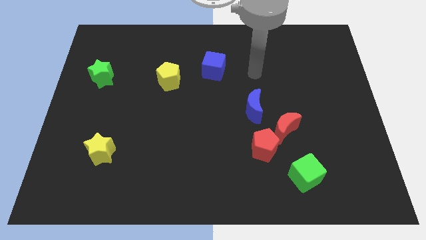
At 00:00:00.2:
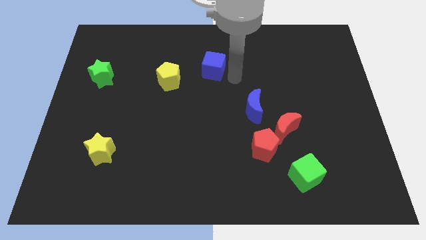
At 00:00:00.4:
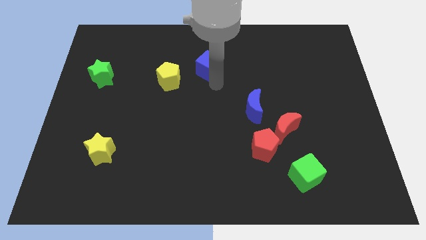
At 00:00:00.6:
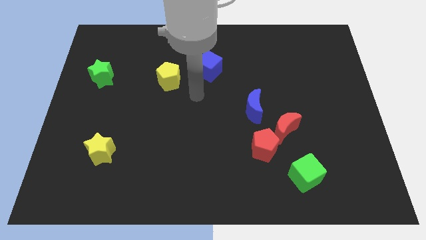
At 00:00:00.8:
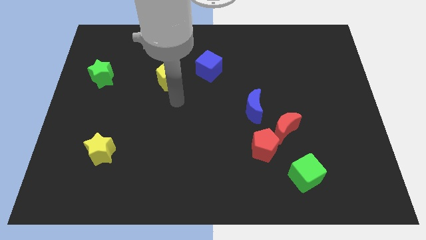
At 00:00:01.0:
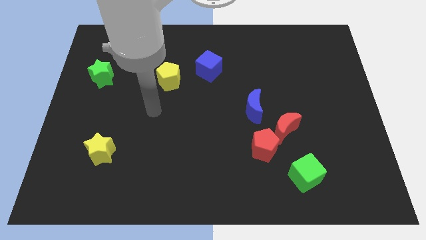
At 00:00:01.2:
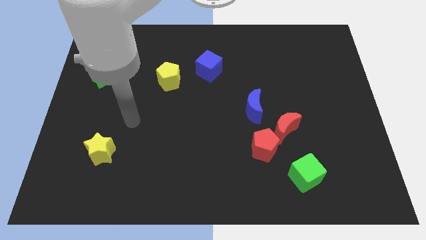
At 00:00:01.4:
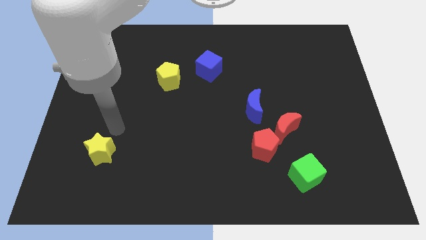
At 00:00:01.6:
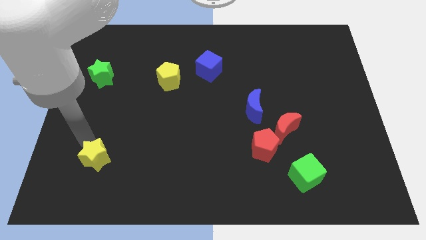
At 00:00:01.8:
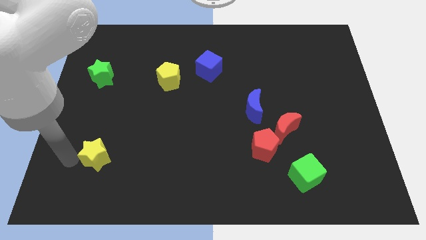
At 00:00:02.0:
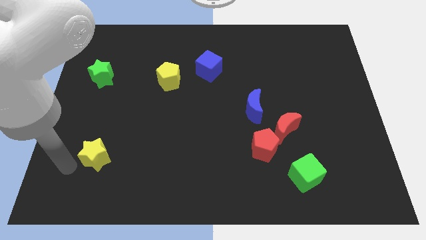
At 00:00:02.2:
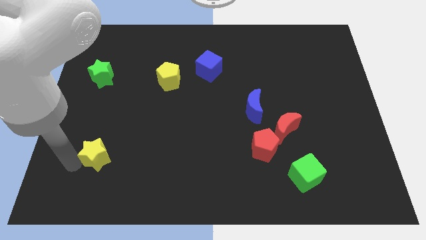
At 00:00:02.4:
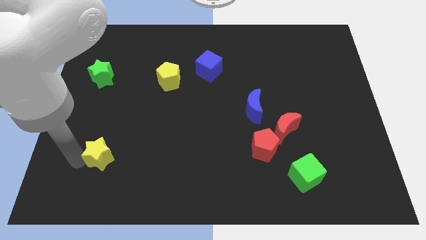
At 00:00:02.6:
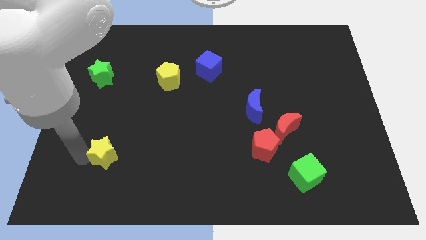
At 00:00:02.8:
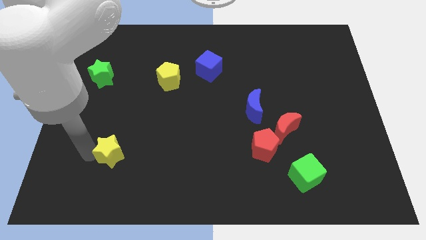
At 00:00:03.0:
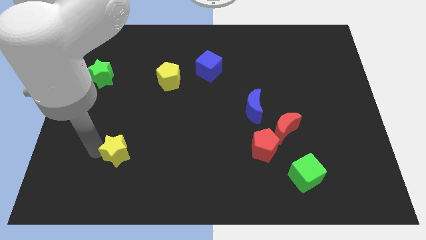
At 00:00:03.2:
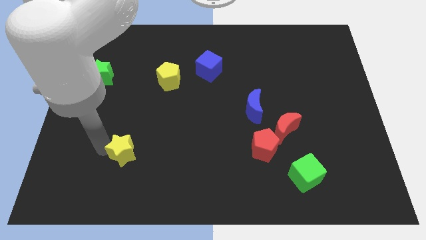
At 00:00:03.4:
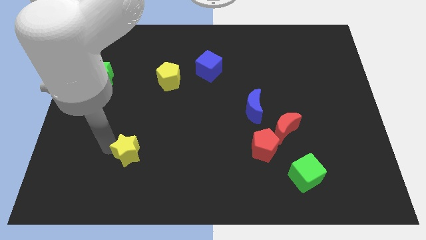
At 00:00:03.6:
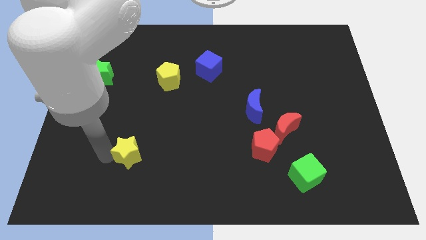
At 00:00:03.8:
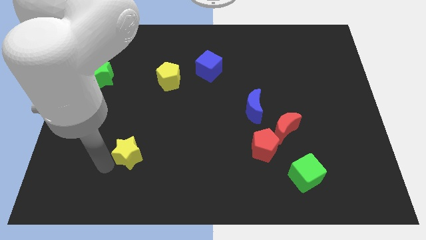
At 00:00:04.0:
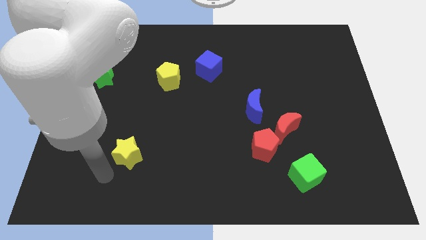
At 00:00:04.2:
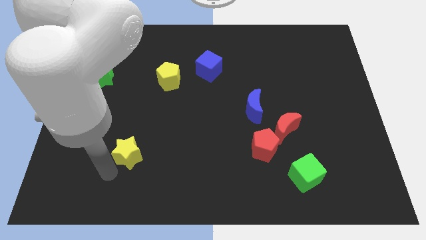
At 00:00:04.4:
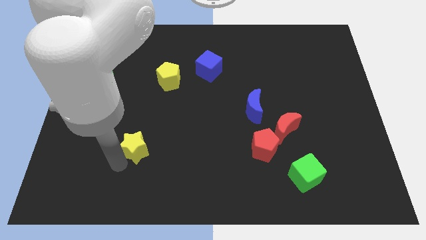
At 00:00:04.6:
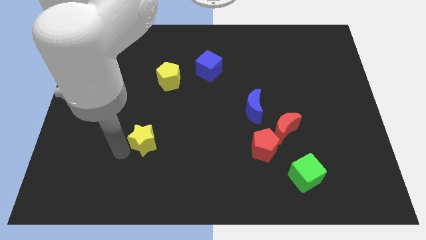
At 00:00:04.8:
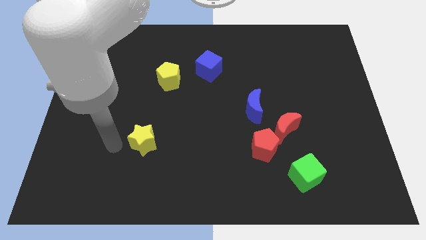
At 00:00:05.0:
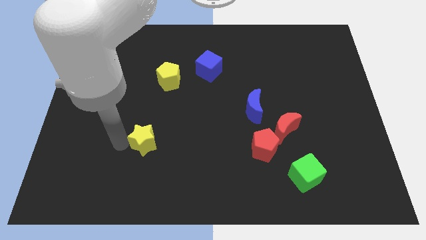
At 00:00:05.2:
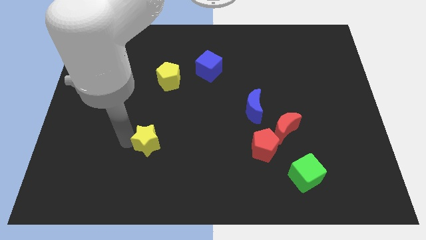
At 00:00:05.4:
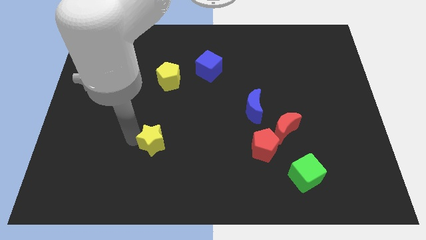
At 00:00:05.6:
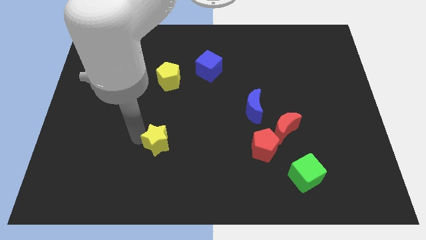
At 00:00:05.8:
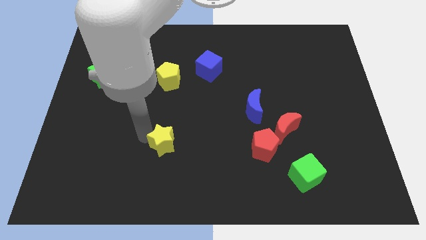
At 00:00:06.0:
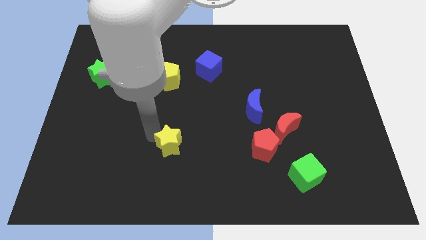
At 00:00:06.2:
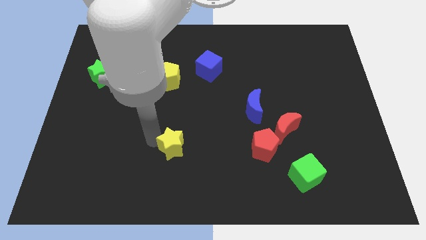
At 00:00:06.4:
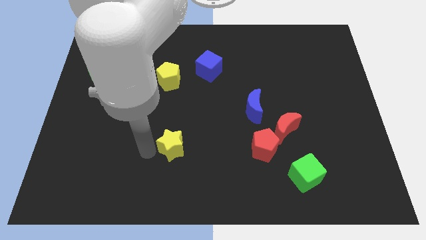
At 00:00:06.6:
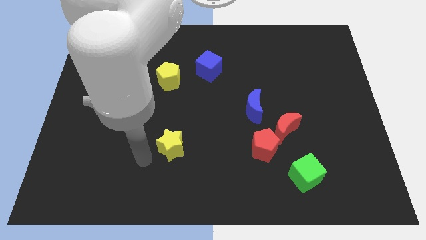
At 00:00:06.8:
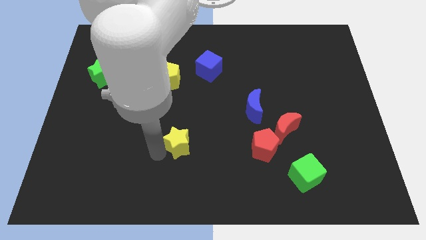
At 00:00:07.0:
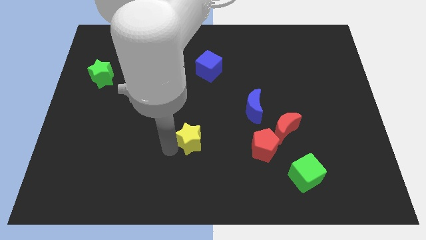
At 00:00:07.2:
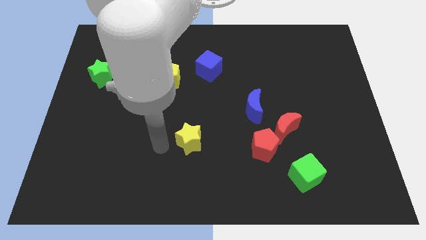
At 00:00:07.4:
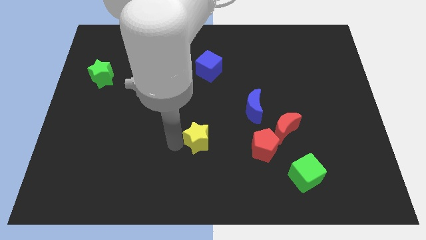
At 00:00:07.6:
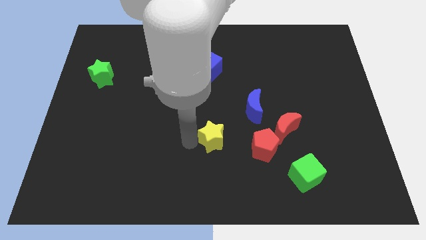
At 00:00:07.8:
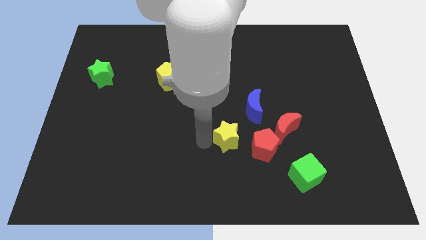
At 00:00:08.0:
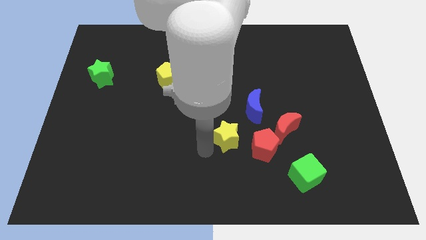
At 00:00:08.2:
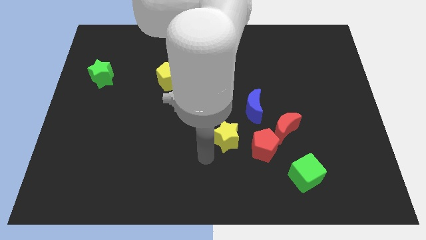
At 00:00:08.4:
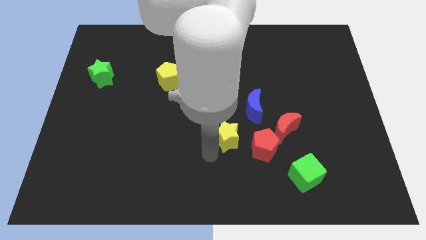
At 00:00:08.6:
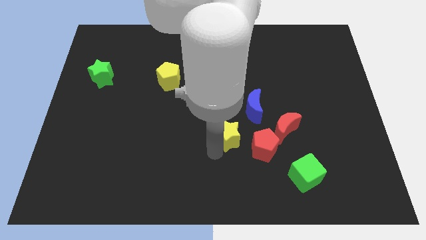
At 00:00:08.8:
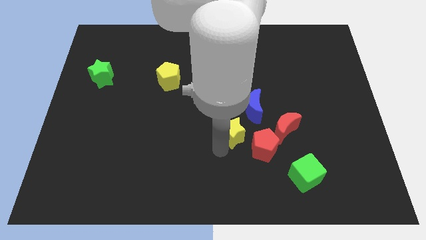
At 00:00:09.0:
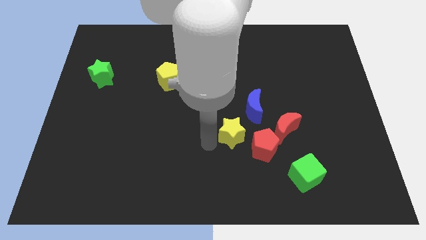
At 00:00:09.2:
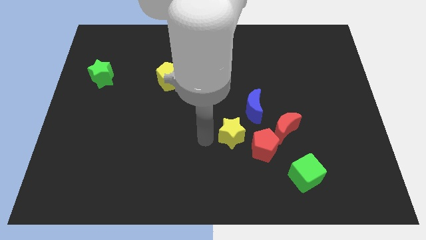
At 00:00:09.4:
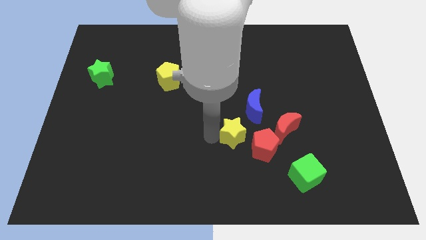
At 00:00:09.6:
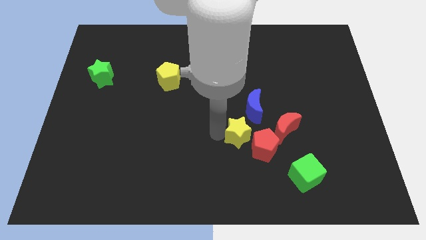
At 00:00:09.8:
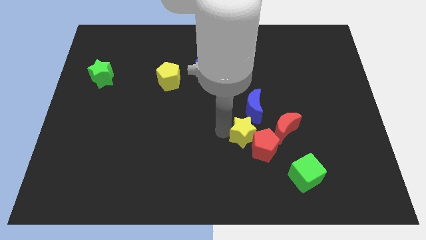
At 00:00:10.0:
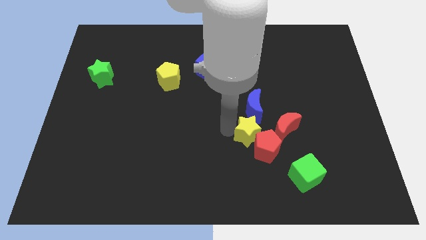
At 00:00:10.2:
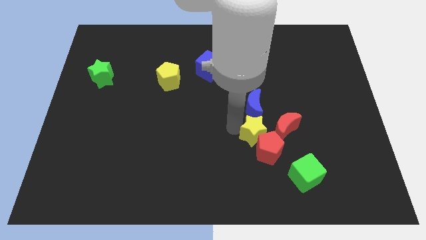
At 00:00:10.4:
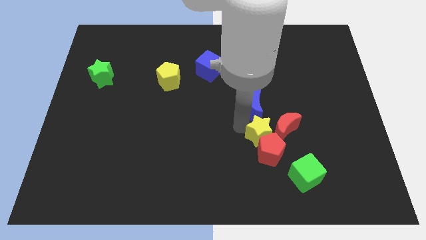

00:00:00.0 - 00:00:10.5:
put the yellow star close to the red moon

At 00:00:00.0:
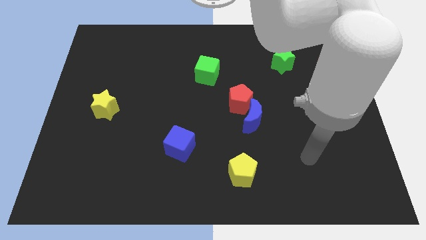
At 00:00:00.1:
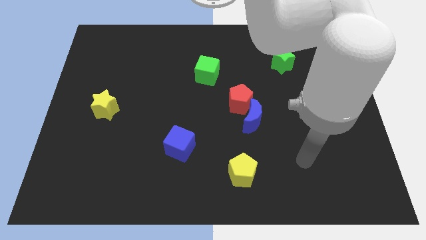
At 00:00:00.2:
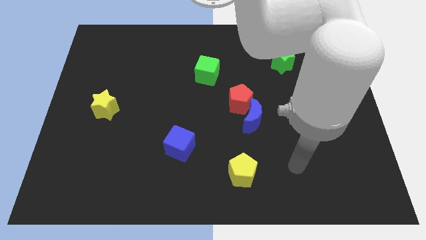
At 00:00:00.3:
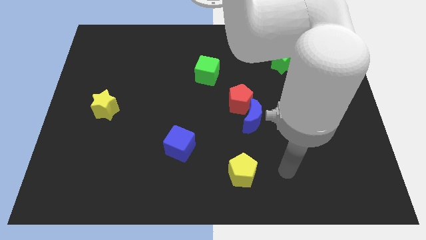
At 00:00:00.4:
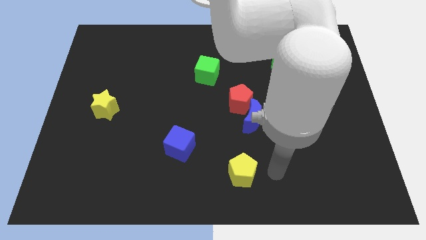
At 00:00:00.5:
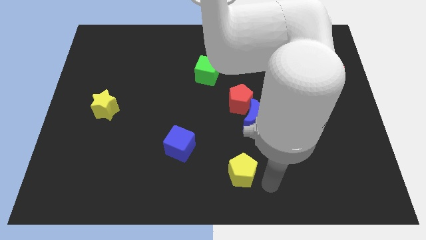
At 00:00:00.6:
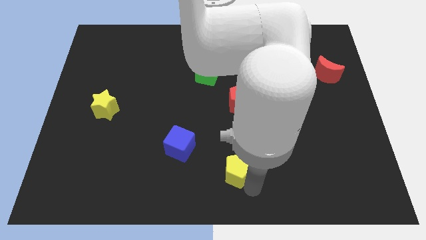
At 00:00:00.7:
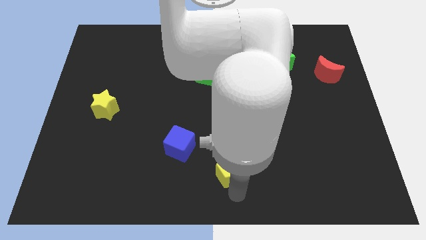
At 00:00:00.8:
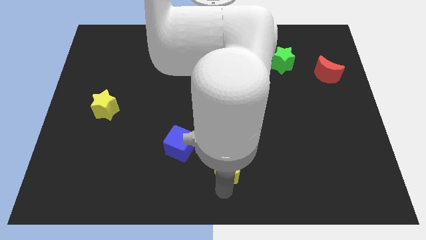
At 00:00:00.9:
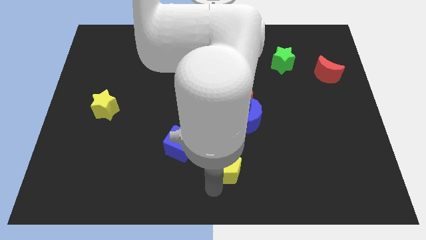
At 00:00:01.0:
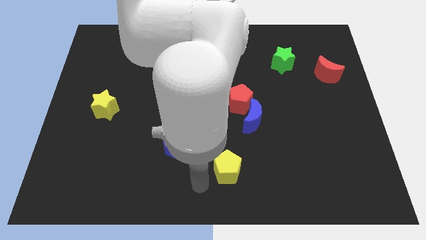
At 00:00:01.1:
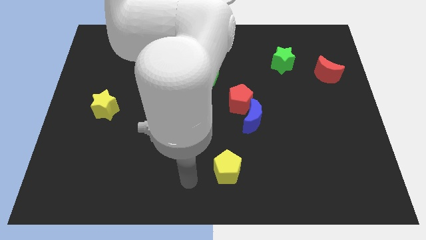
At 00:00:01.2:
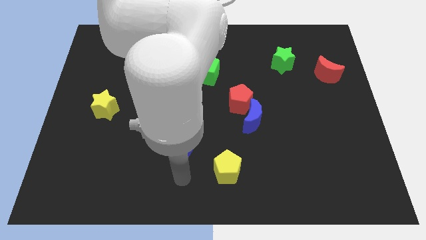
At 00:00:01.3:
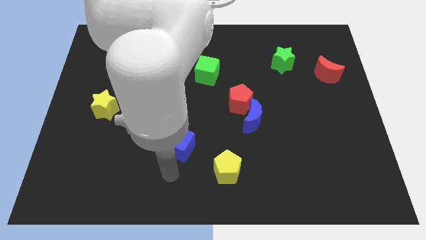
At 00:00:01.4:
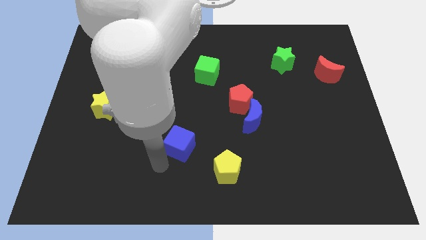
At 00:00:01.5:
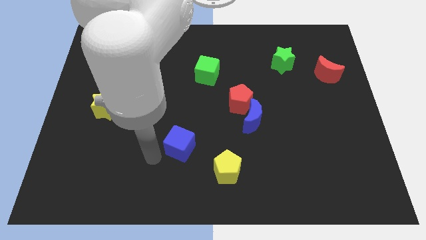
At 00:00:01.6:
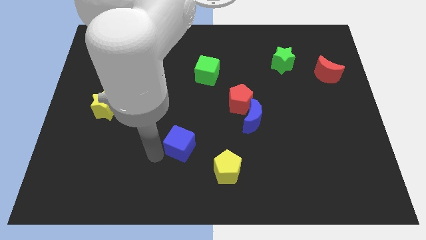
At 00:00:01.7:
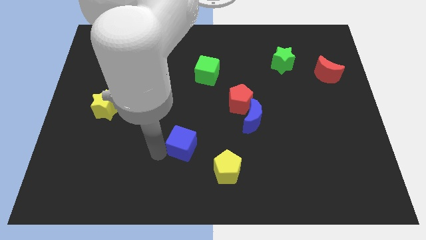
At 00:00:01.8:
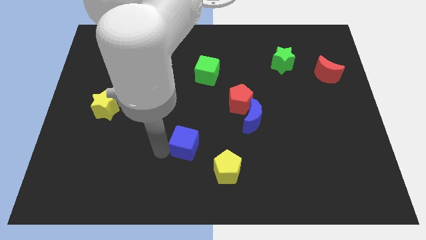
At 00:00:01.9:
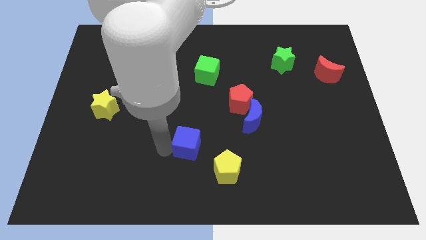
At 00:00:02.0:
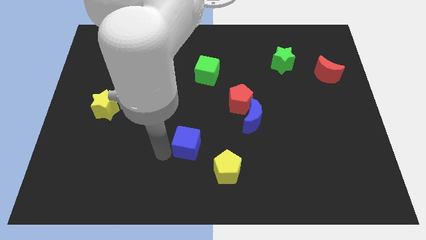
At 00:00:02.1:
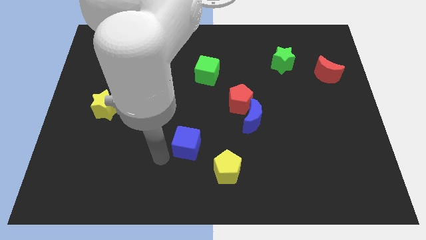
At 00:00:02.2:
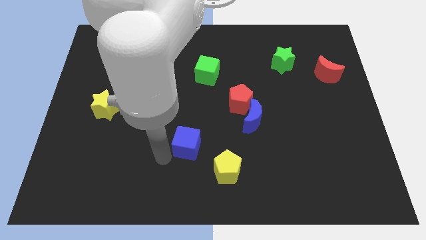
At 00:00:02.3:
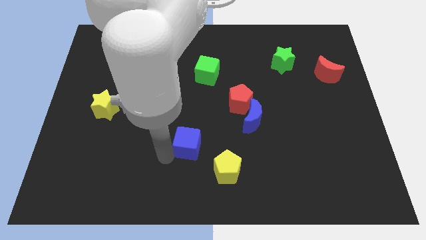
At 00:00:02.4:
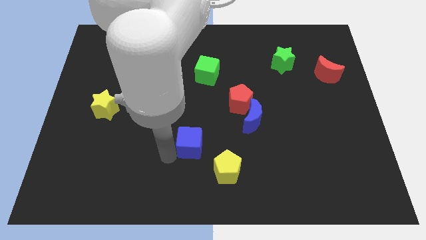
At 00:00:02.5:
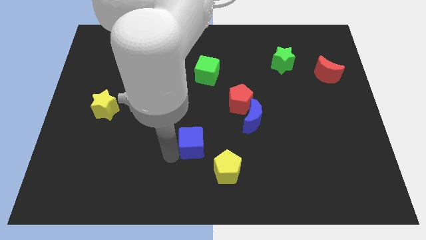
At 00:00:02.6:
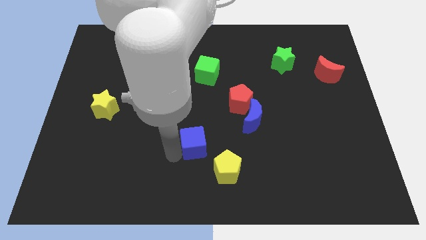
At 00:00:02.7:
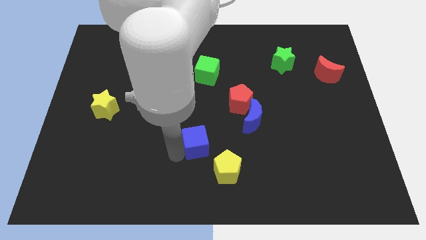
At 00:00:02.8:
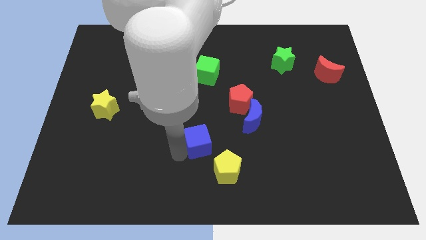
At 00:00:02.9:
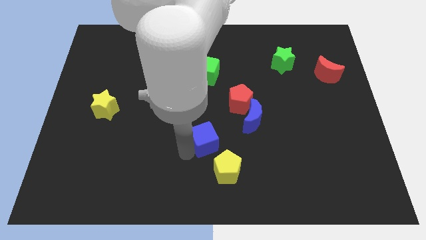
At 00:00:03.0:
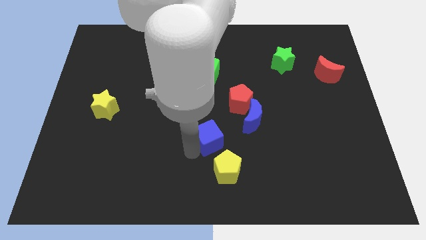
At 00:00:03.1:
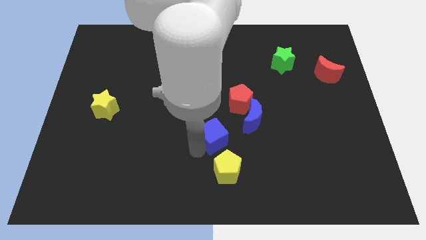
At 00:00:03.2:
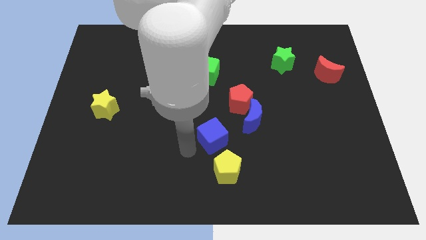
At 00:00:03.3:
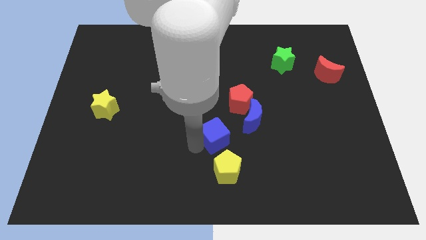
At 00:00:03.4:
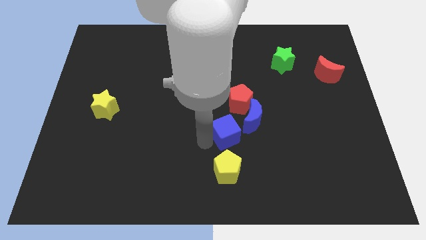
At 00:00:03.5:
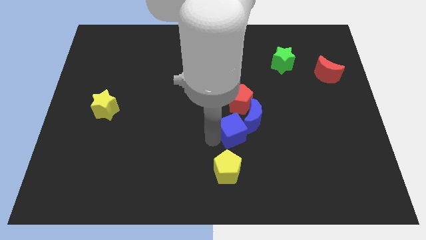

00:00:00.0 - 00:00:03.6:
put the blue cube towards the blue moon
